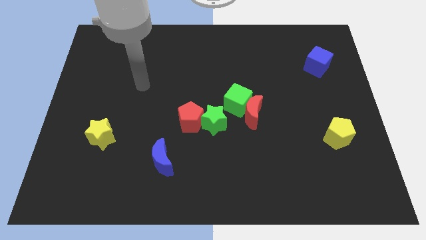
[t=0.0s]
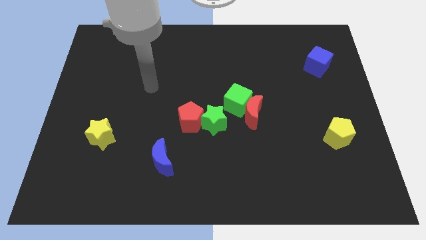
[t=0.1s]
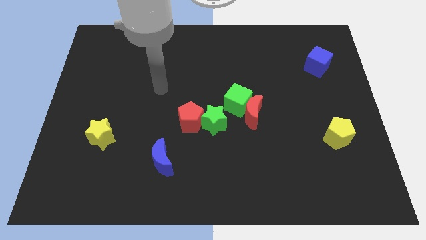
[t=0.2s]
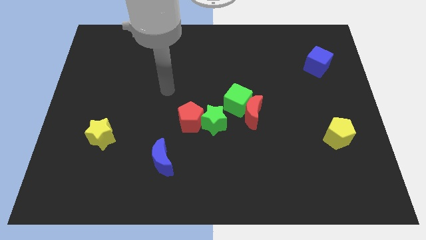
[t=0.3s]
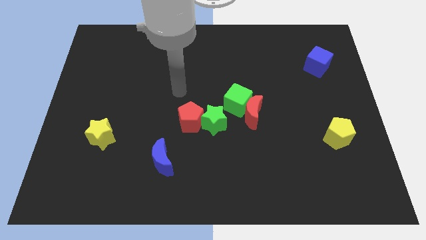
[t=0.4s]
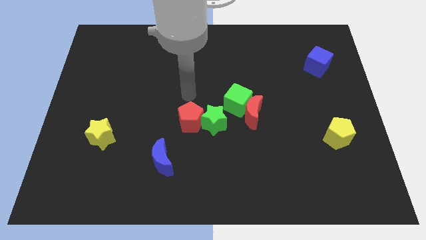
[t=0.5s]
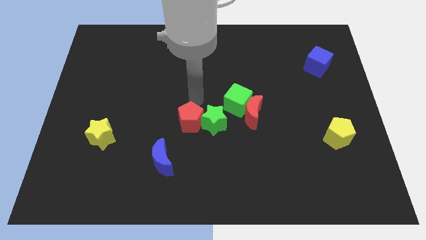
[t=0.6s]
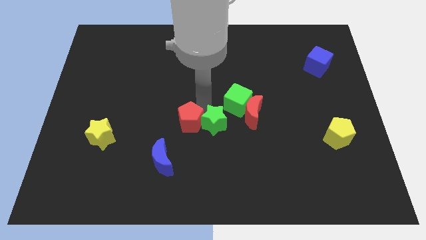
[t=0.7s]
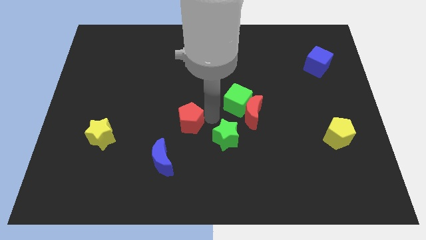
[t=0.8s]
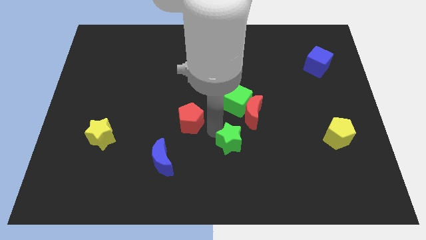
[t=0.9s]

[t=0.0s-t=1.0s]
pull the red pentagon apart from the green star

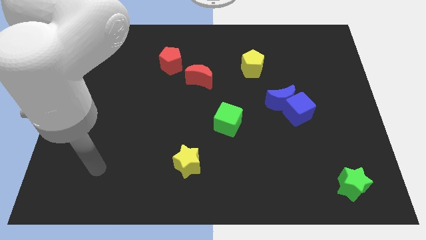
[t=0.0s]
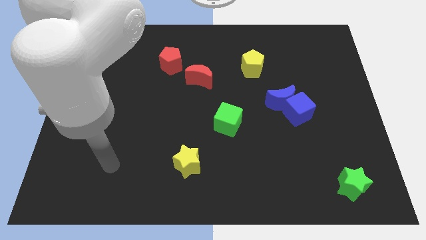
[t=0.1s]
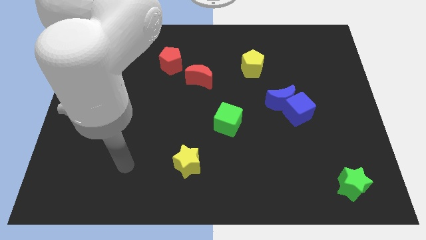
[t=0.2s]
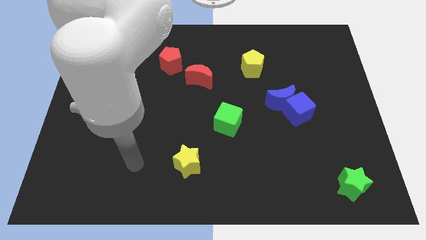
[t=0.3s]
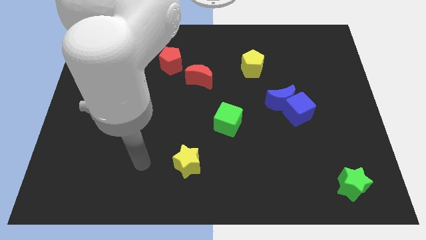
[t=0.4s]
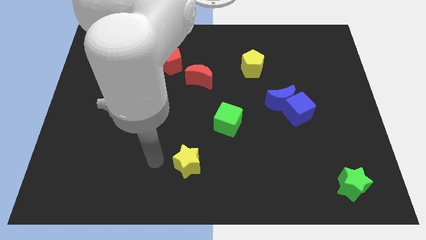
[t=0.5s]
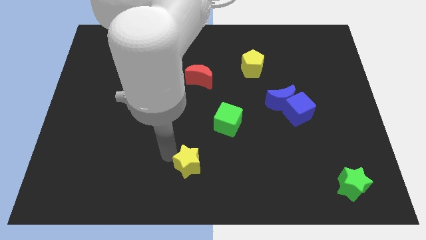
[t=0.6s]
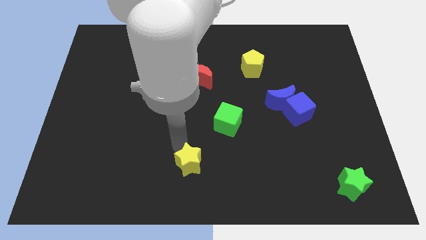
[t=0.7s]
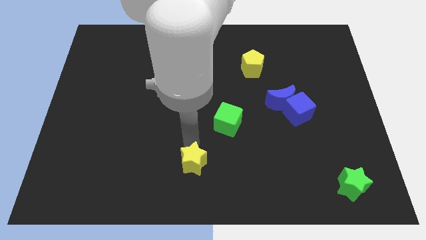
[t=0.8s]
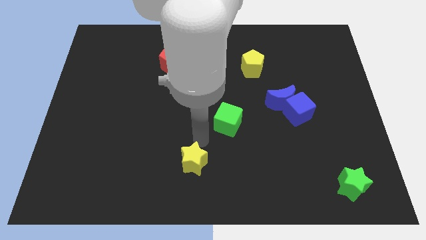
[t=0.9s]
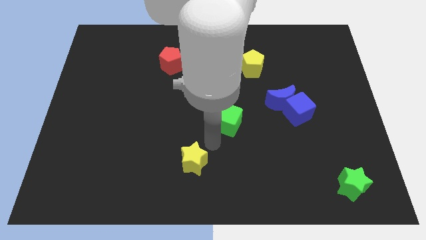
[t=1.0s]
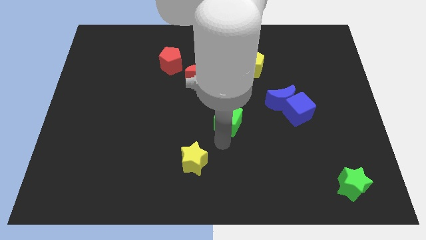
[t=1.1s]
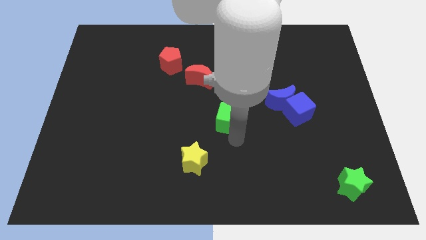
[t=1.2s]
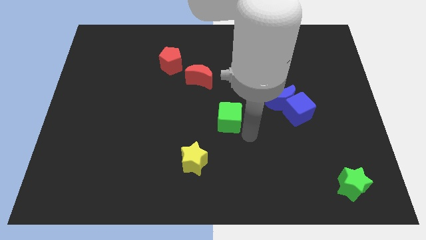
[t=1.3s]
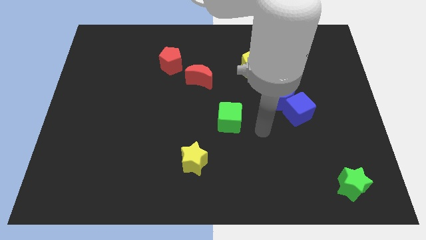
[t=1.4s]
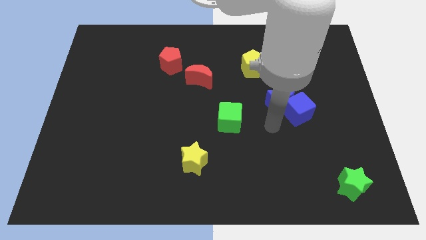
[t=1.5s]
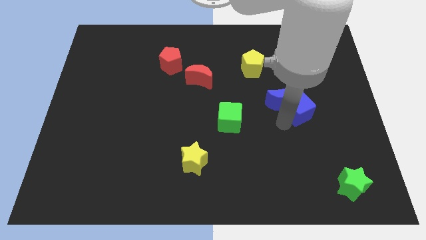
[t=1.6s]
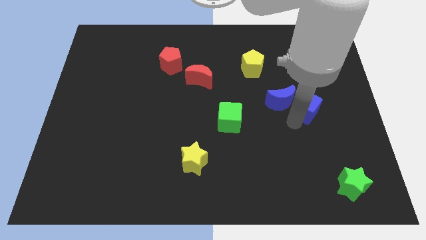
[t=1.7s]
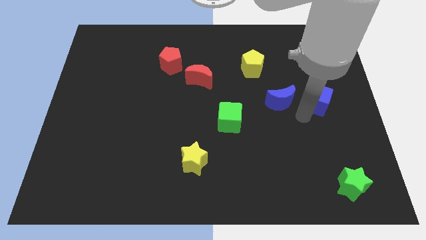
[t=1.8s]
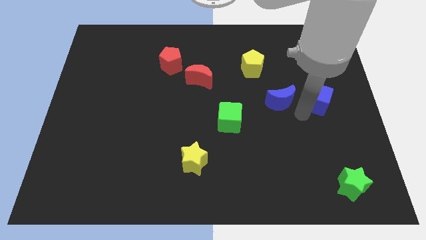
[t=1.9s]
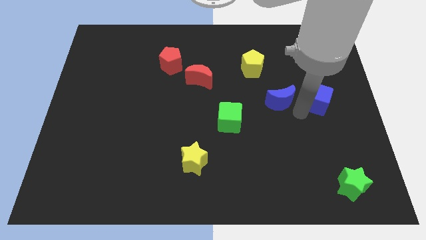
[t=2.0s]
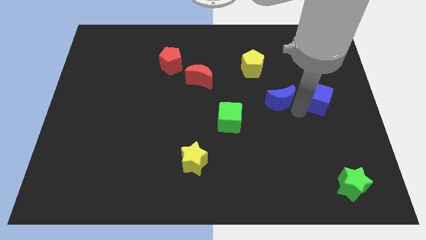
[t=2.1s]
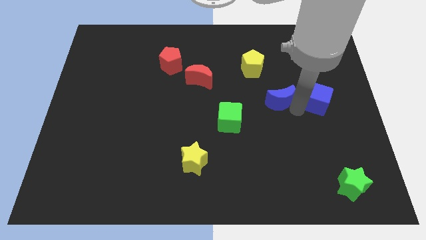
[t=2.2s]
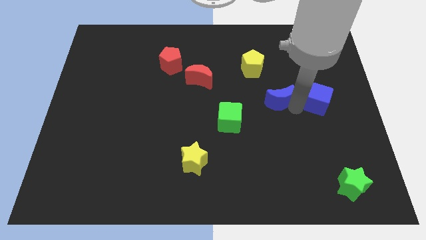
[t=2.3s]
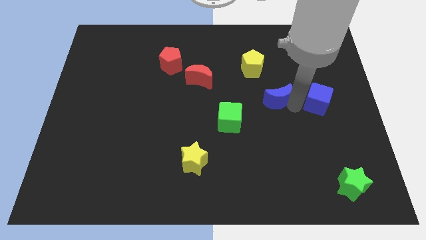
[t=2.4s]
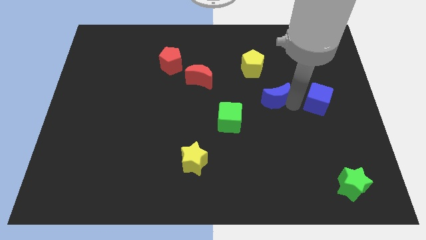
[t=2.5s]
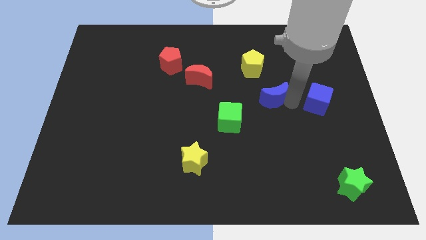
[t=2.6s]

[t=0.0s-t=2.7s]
separate the blue moon from the blue cube

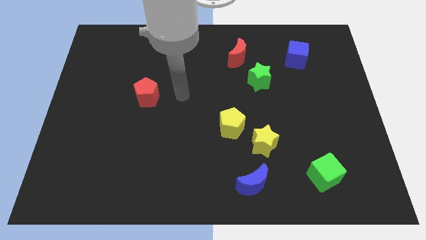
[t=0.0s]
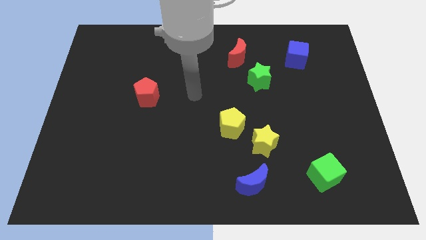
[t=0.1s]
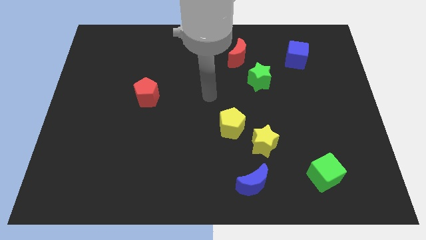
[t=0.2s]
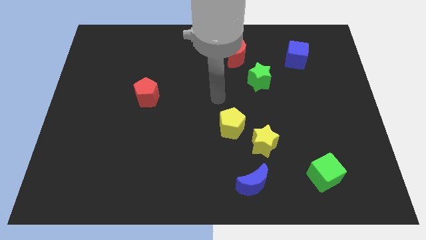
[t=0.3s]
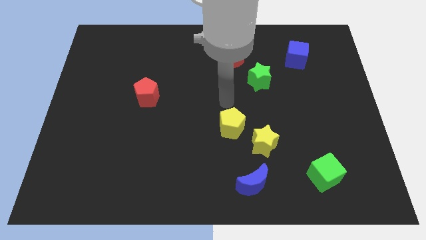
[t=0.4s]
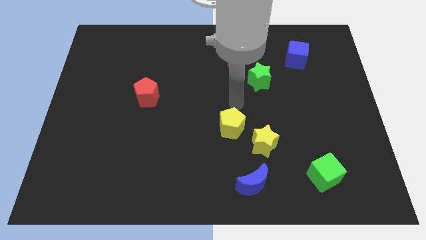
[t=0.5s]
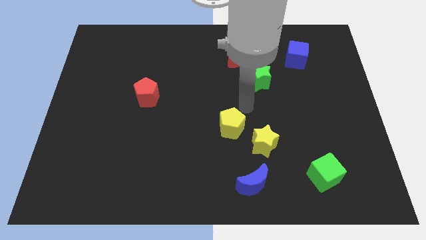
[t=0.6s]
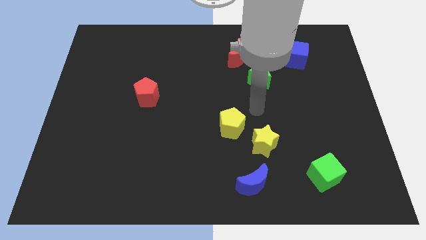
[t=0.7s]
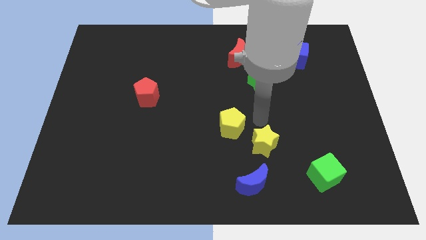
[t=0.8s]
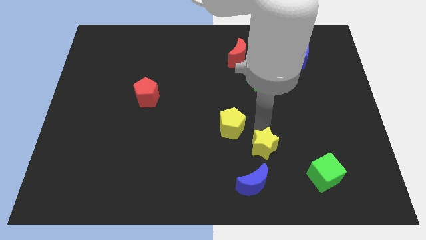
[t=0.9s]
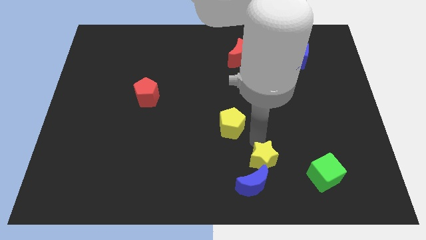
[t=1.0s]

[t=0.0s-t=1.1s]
separate the yellow pentagon from the yellow star

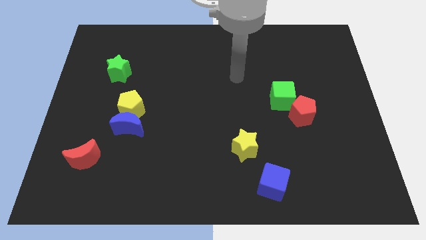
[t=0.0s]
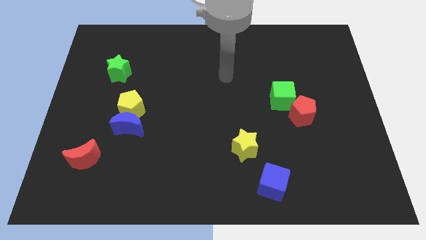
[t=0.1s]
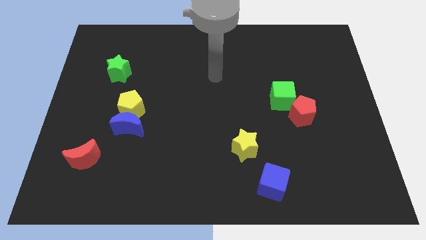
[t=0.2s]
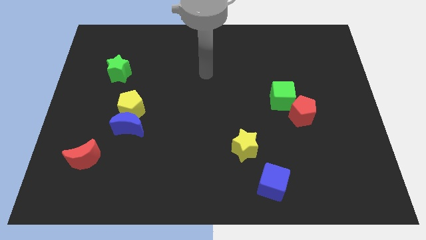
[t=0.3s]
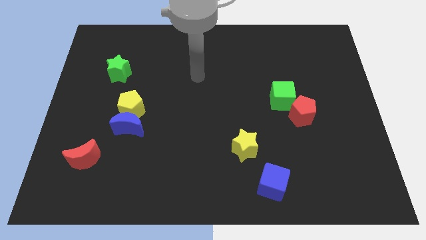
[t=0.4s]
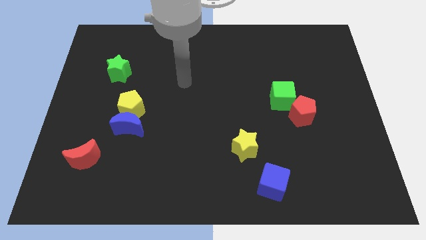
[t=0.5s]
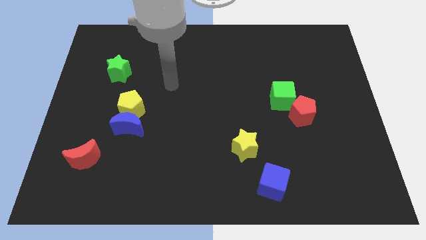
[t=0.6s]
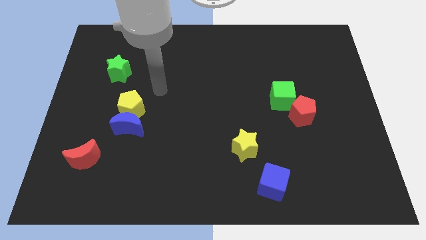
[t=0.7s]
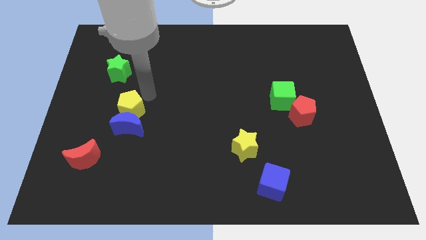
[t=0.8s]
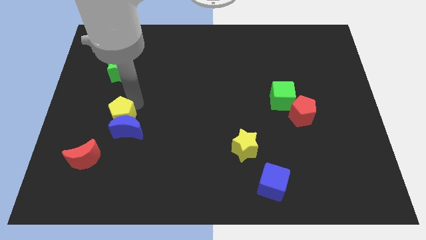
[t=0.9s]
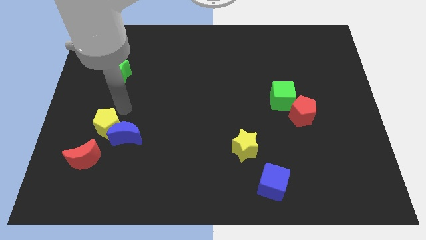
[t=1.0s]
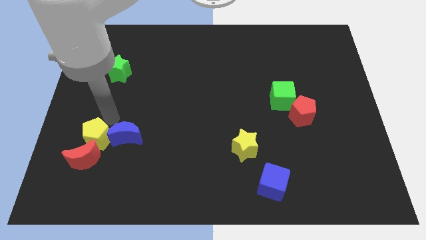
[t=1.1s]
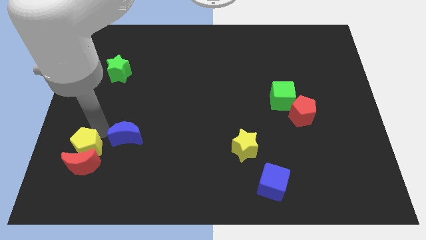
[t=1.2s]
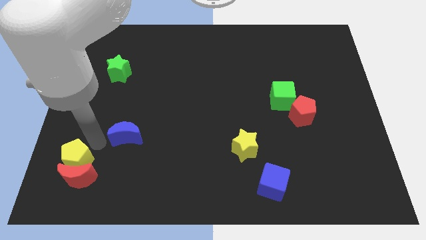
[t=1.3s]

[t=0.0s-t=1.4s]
move the blue moon away from the yellow pentagon

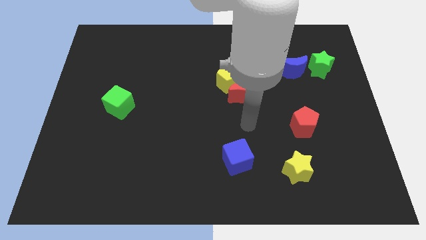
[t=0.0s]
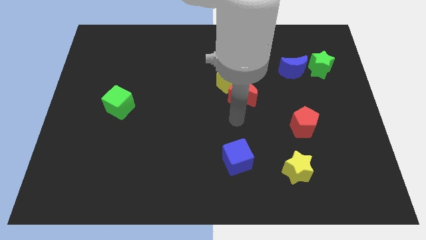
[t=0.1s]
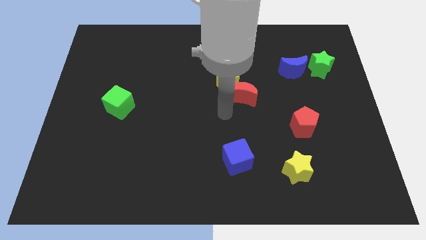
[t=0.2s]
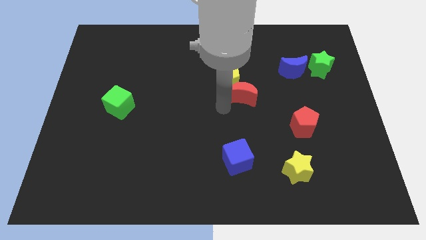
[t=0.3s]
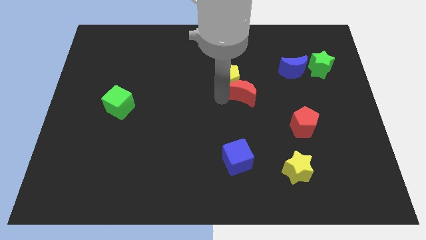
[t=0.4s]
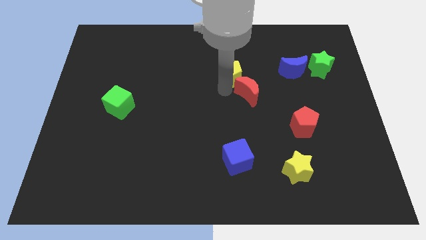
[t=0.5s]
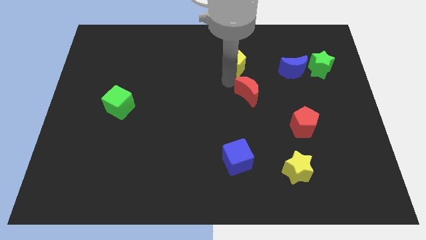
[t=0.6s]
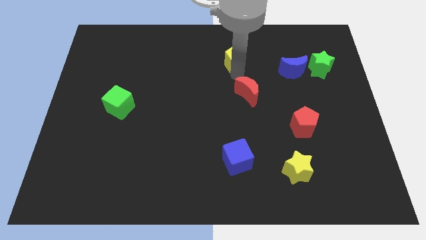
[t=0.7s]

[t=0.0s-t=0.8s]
pull the red moon apart from the yellow pentagon

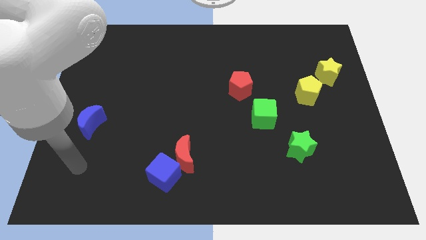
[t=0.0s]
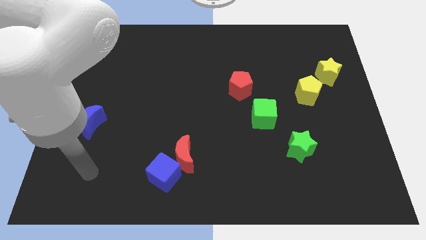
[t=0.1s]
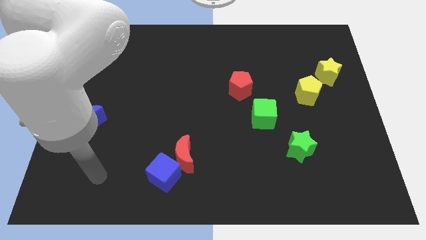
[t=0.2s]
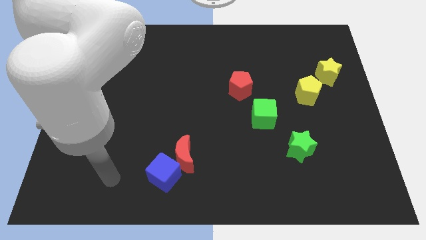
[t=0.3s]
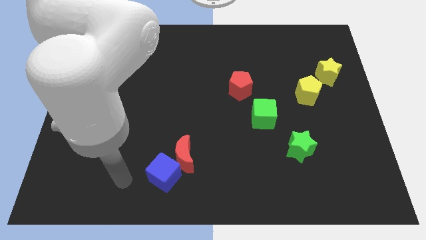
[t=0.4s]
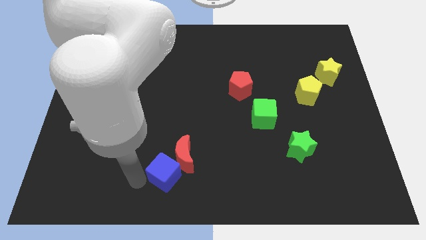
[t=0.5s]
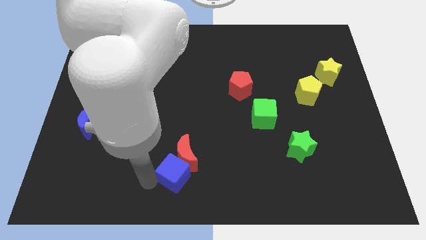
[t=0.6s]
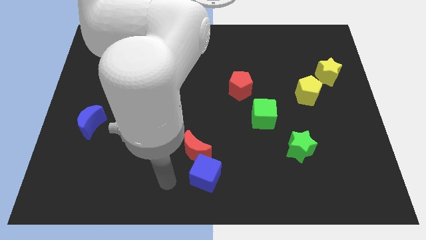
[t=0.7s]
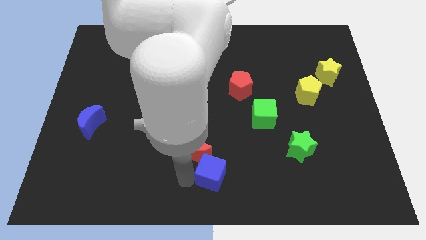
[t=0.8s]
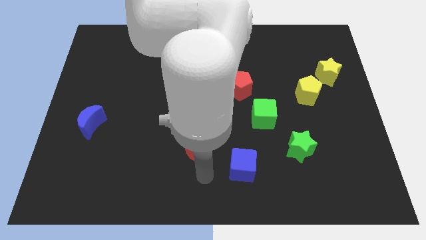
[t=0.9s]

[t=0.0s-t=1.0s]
move the red moon away from the blue cube

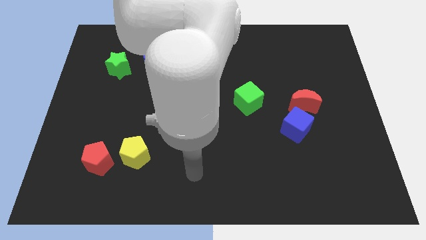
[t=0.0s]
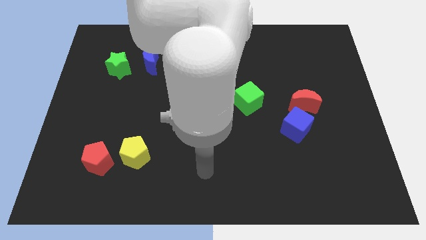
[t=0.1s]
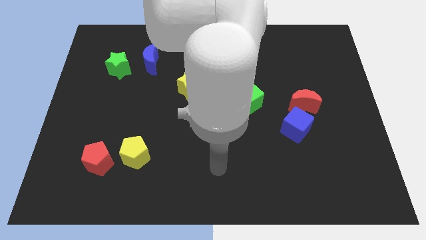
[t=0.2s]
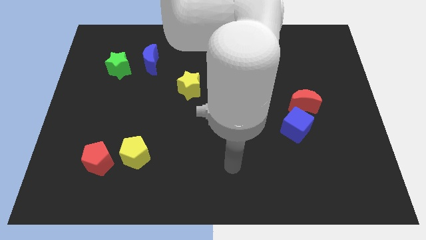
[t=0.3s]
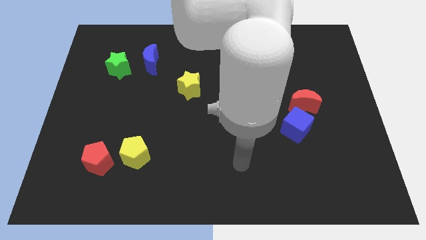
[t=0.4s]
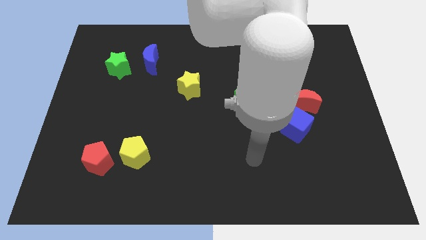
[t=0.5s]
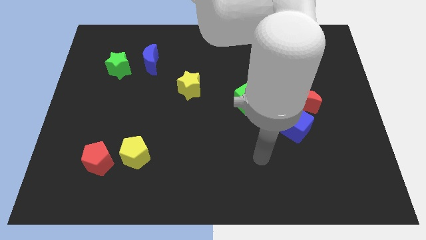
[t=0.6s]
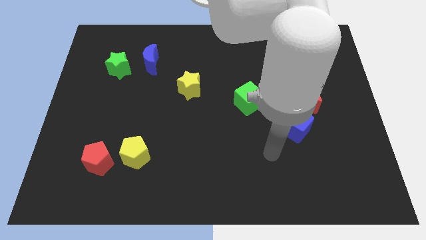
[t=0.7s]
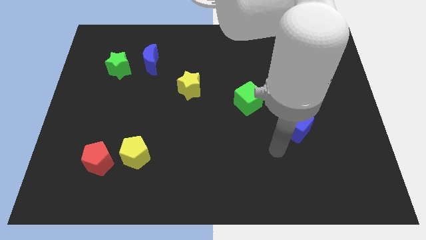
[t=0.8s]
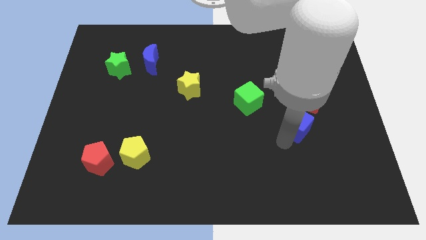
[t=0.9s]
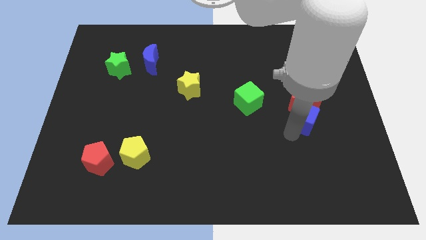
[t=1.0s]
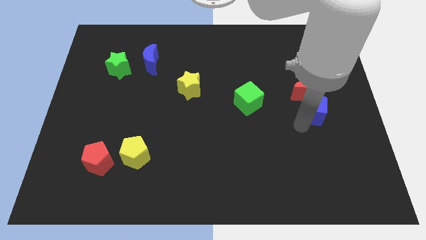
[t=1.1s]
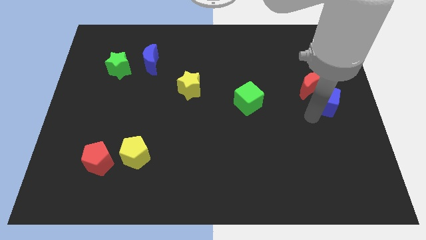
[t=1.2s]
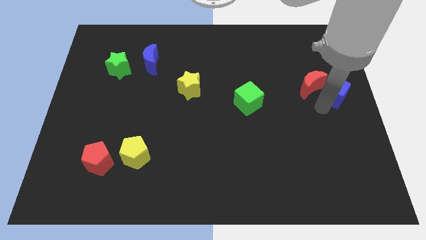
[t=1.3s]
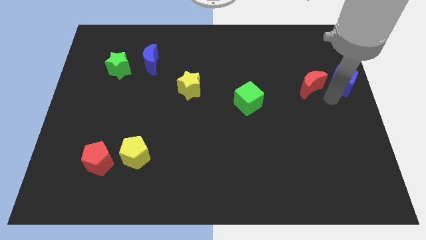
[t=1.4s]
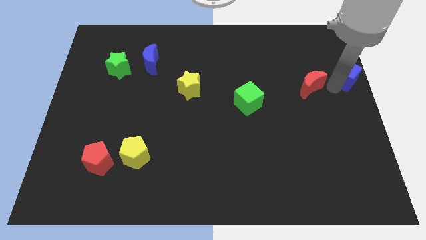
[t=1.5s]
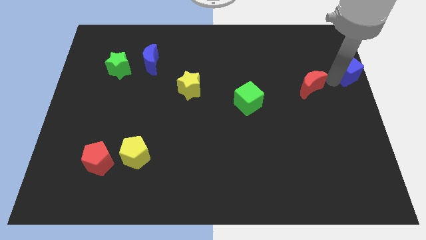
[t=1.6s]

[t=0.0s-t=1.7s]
separate the red moon from the blue cube
